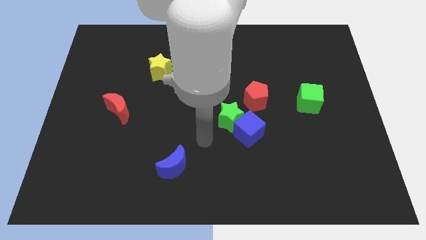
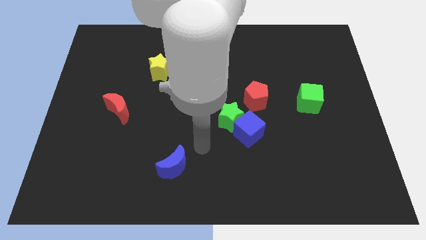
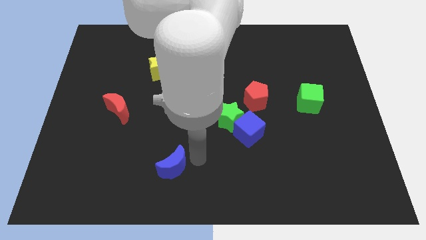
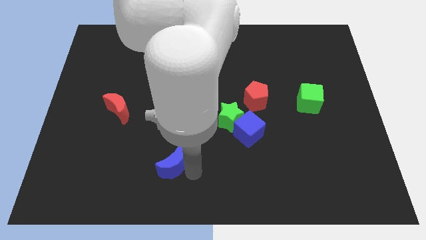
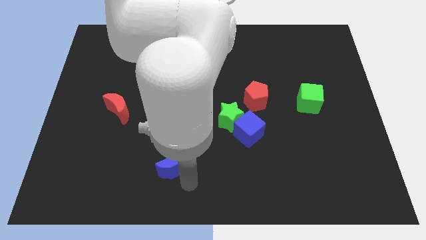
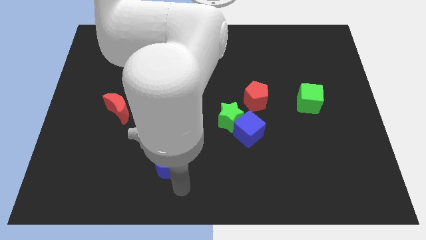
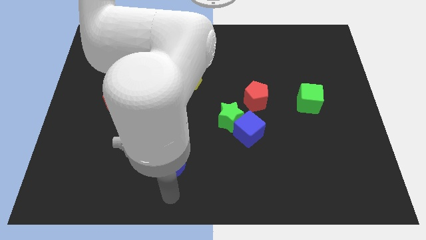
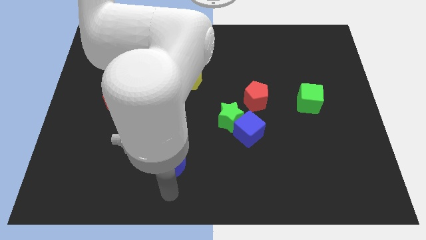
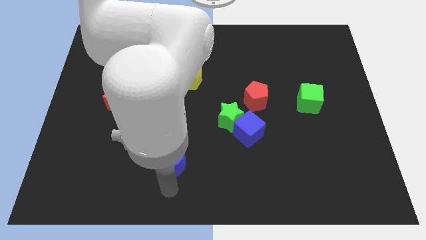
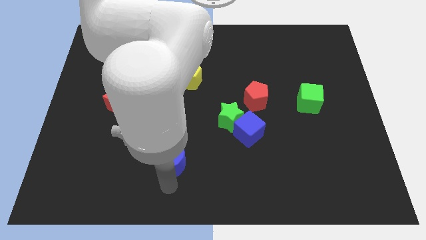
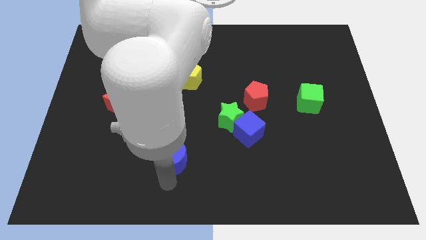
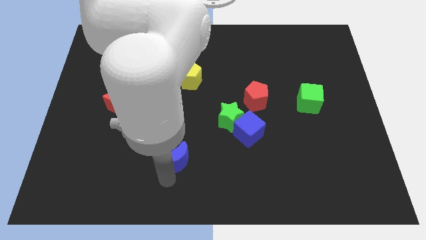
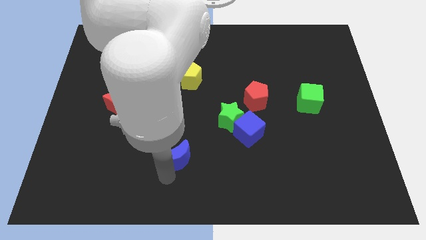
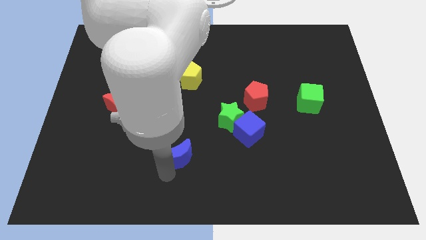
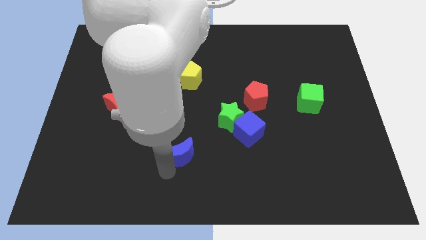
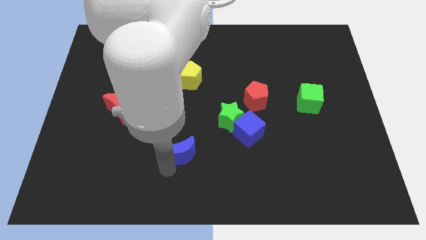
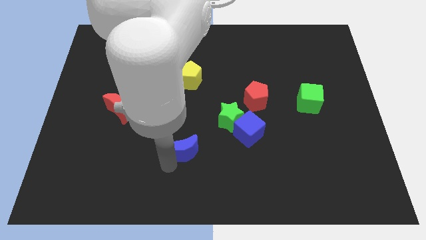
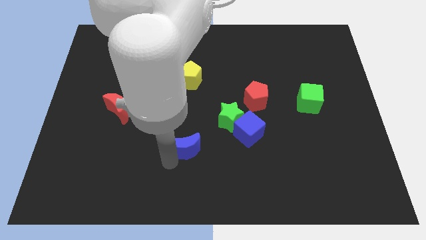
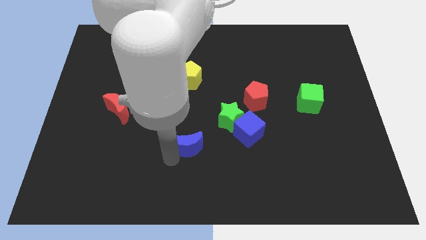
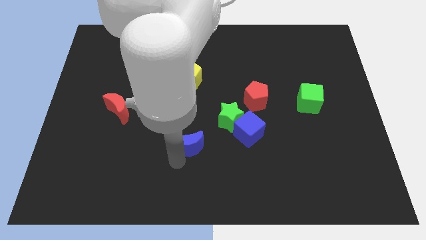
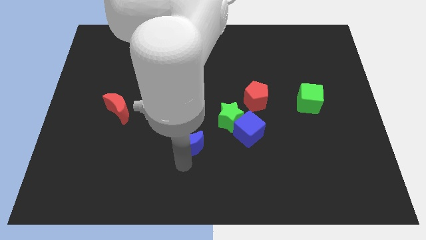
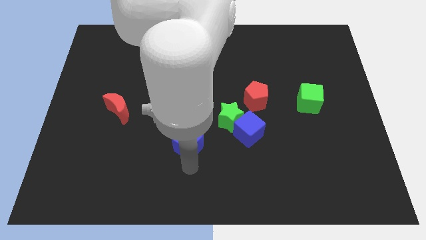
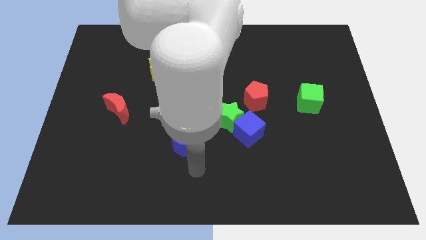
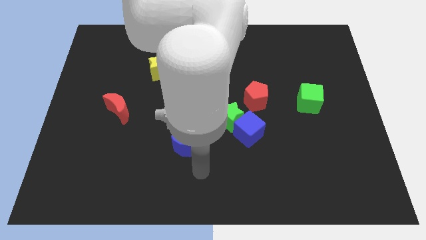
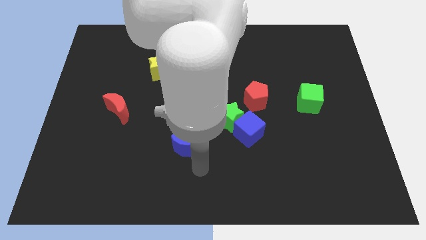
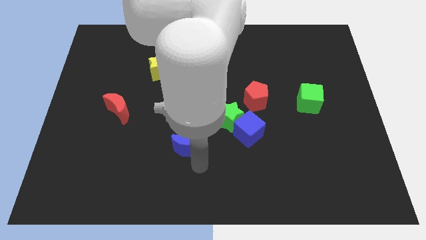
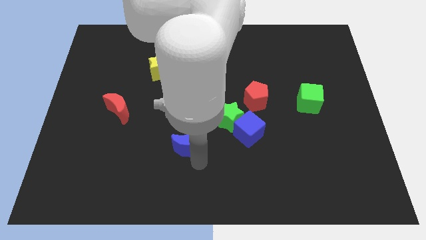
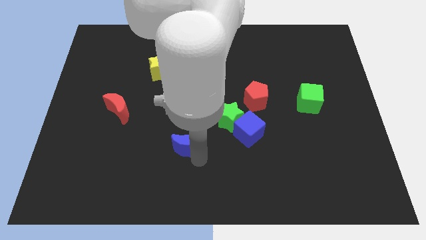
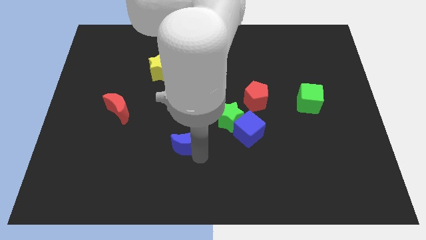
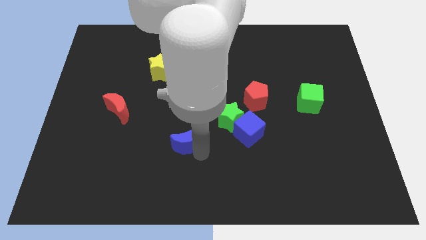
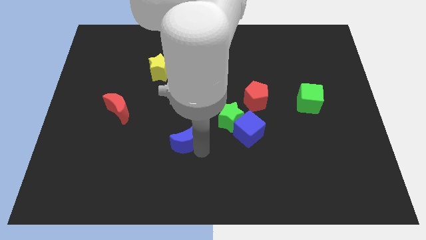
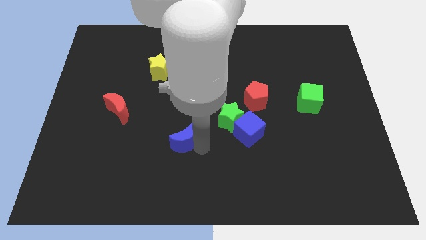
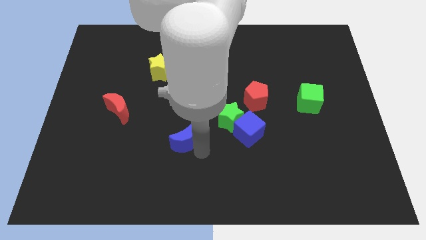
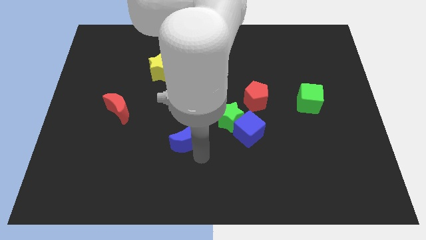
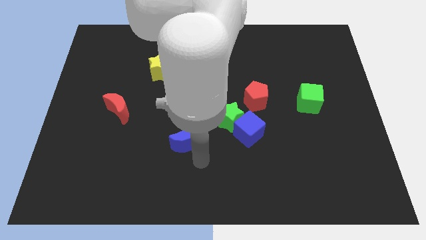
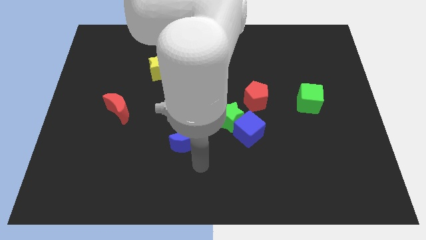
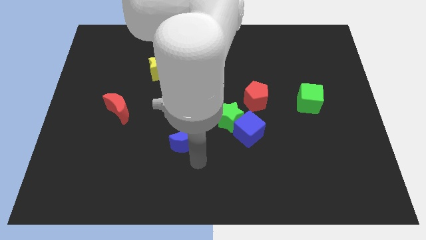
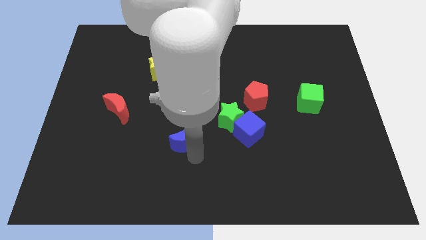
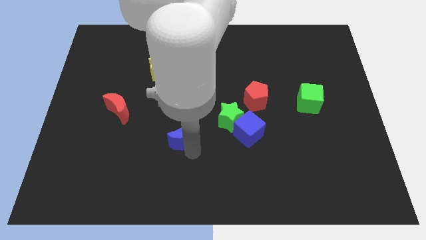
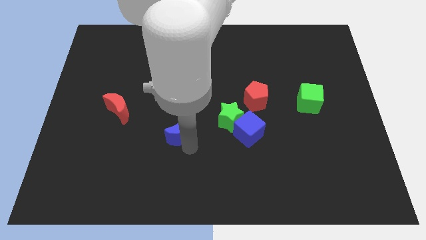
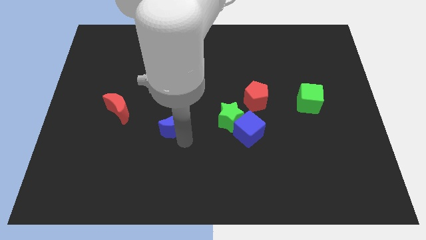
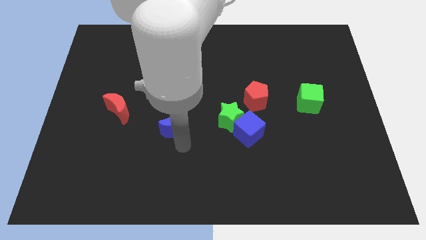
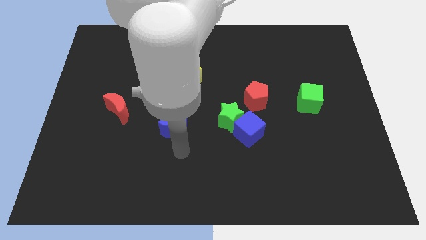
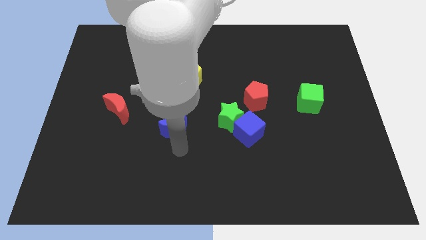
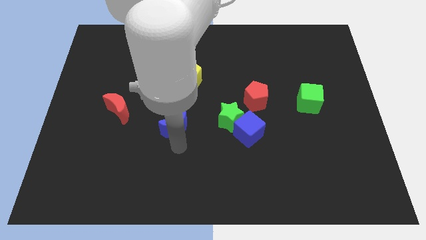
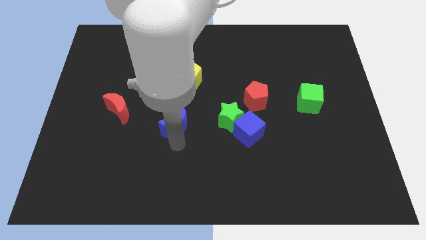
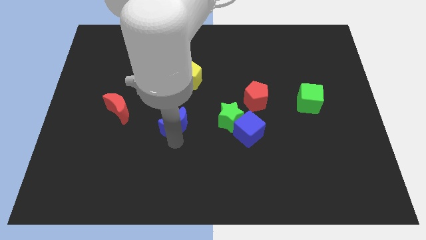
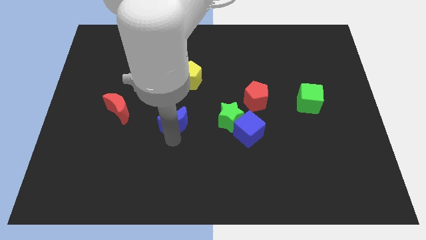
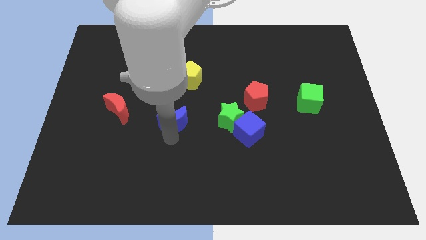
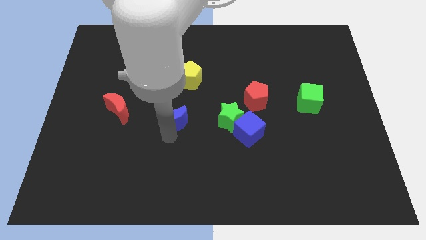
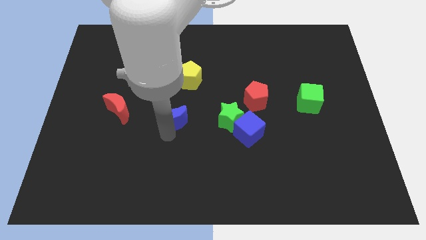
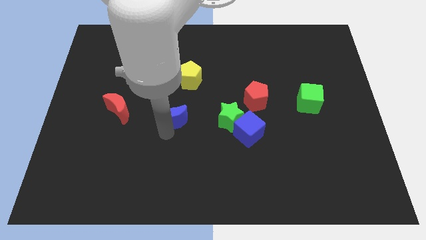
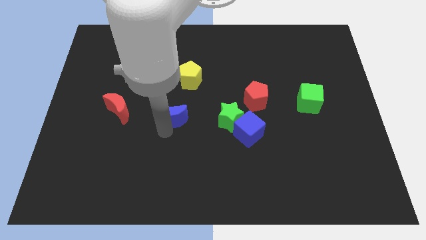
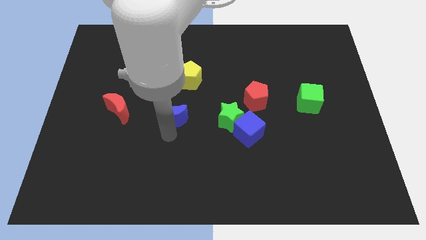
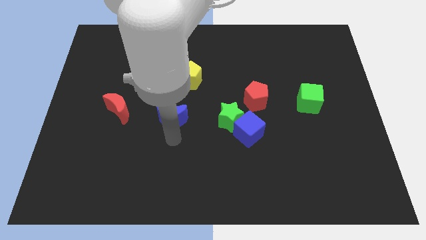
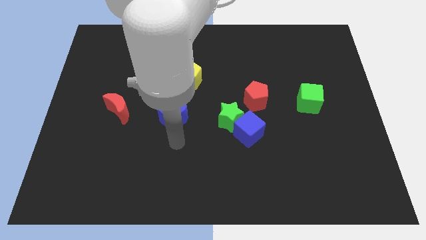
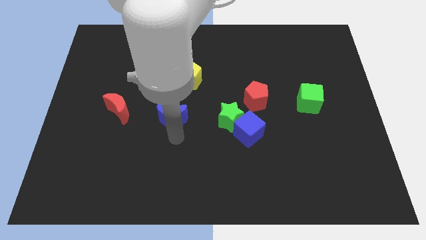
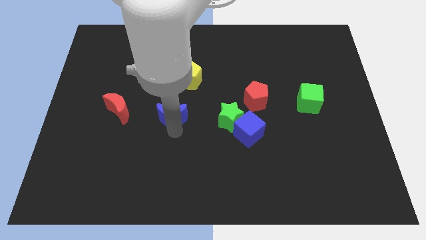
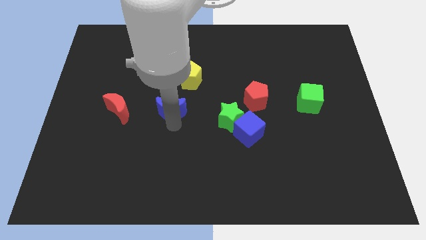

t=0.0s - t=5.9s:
push the blue moon to the bottom left side of the yellow pentagon

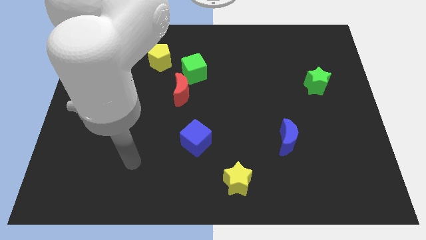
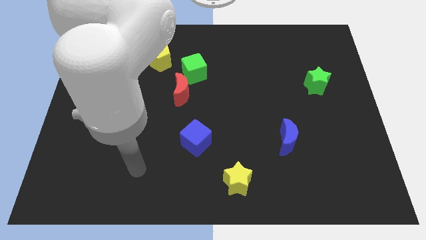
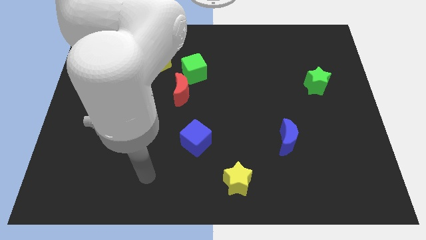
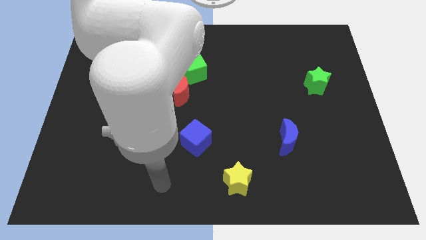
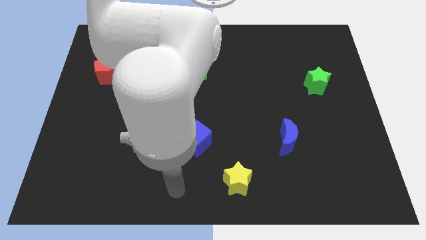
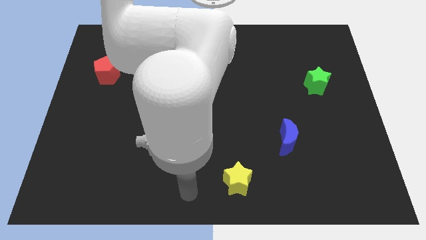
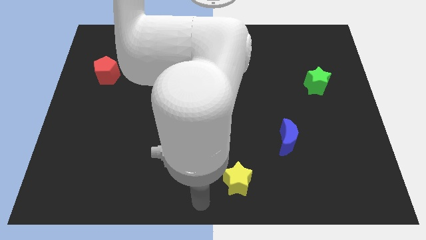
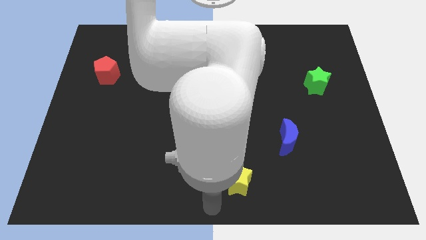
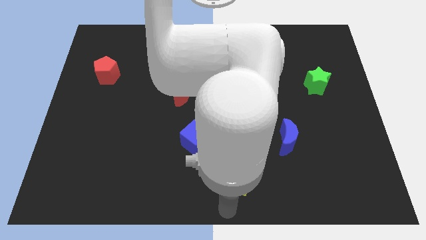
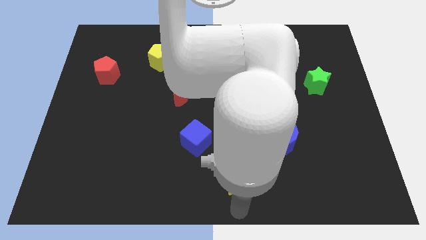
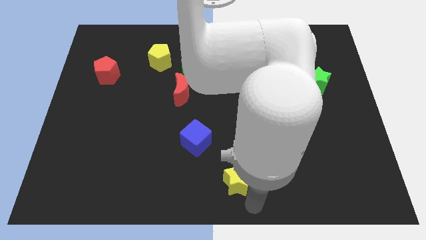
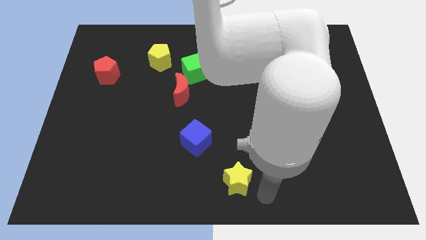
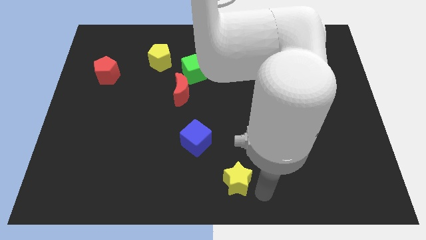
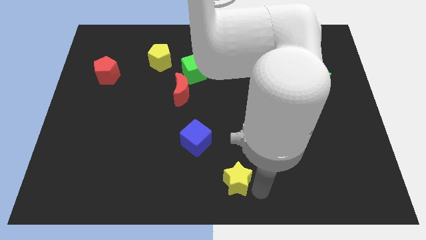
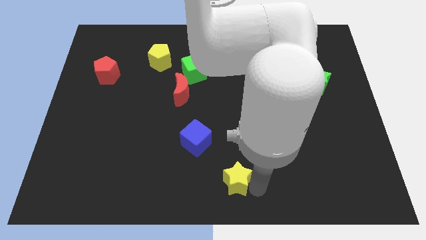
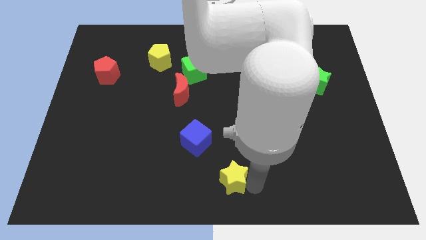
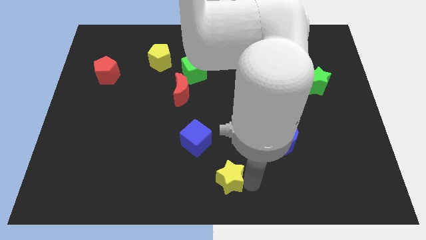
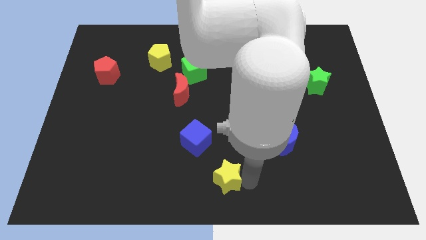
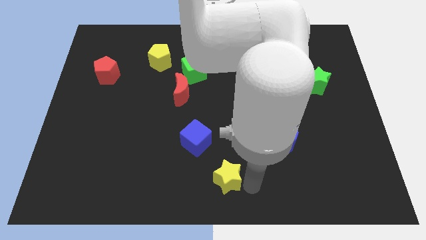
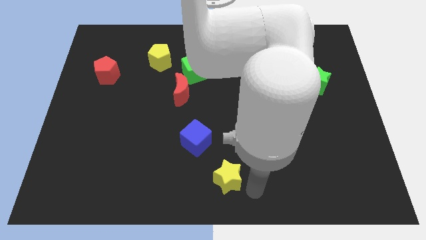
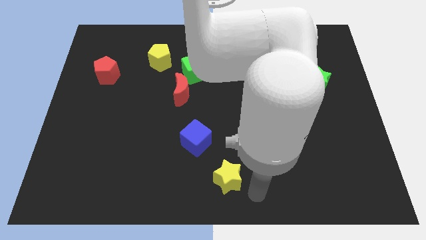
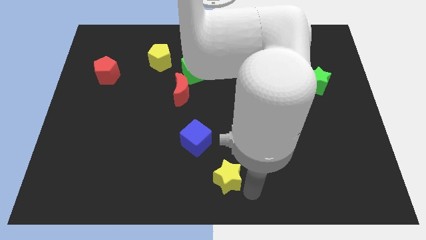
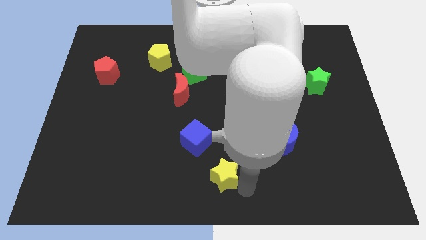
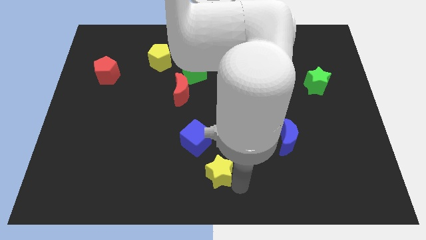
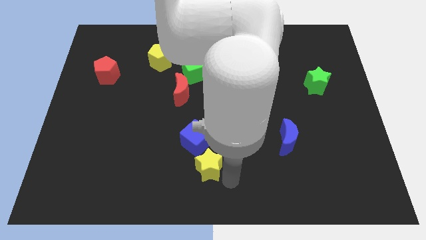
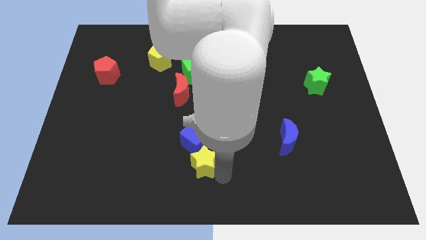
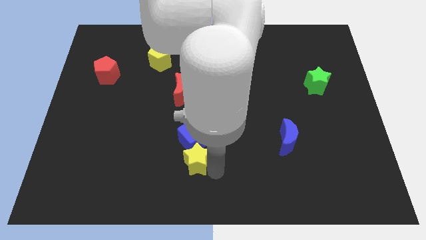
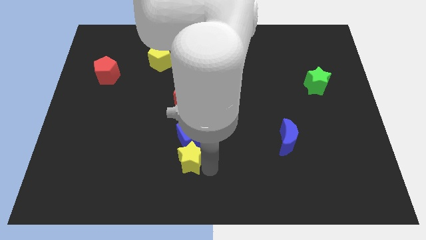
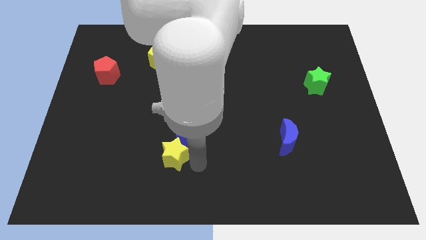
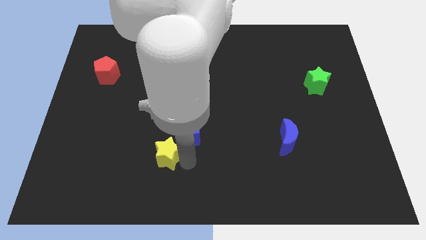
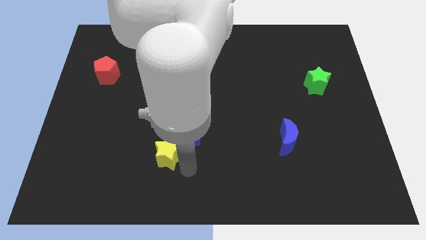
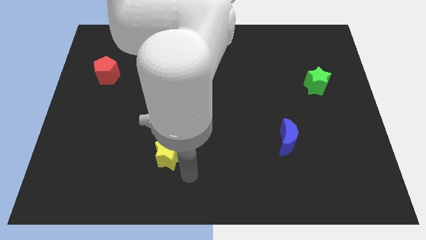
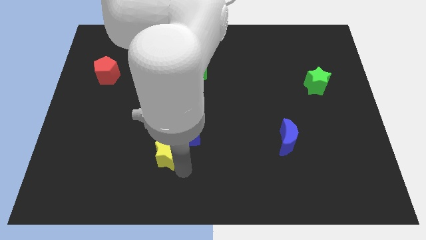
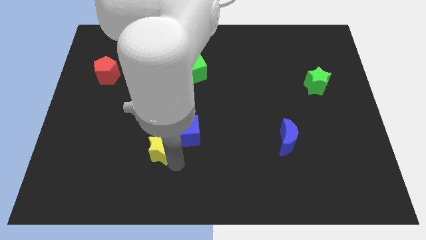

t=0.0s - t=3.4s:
slide the yellow star to the left side of the blue cube
